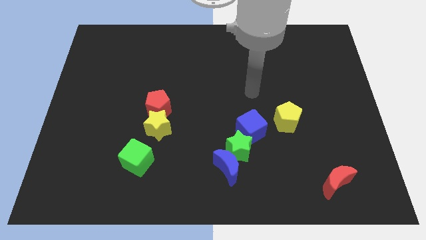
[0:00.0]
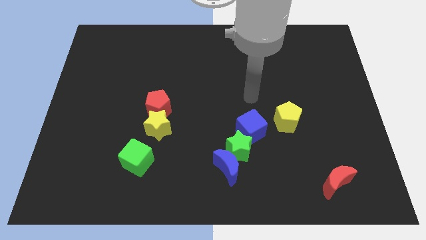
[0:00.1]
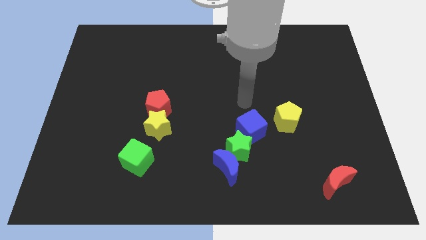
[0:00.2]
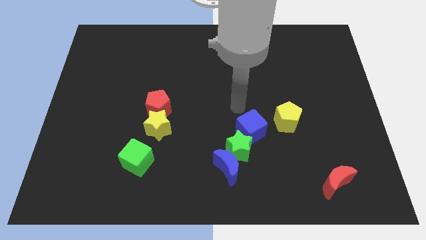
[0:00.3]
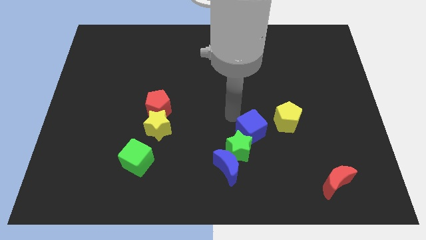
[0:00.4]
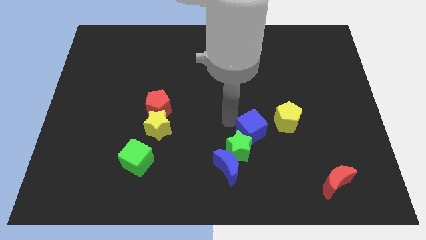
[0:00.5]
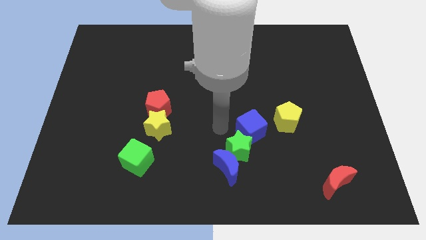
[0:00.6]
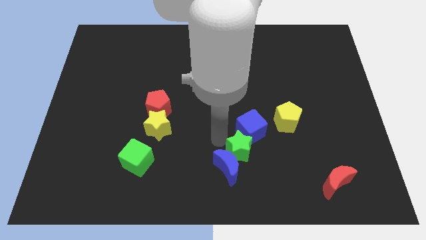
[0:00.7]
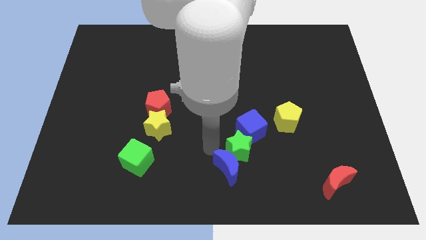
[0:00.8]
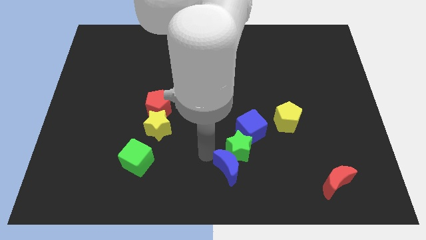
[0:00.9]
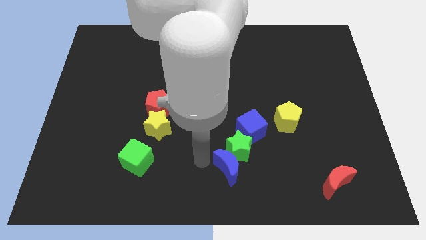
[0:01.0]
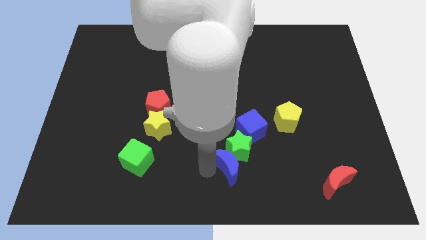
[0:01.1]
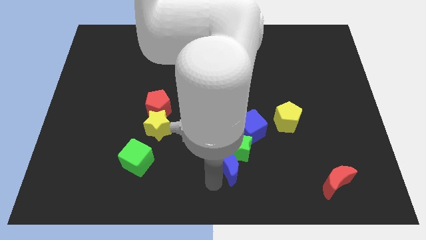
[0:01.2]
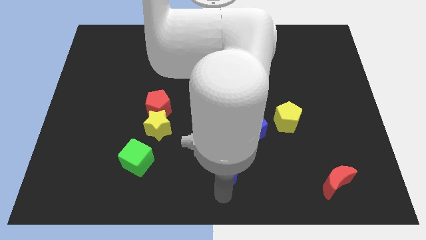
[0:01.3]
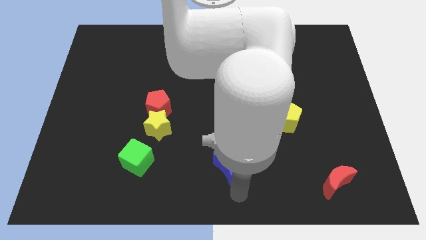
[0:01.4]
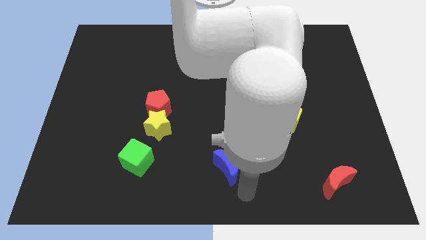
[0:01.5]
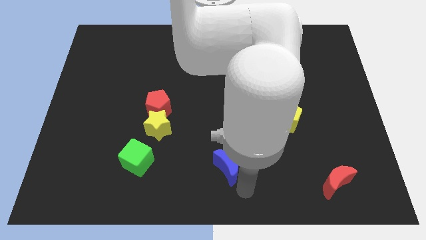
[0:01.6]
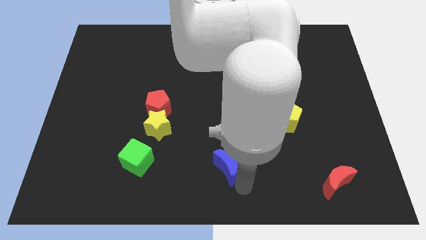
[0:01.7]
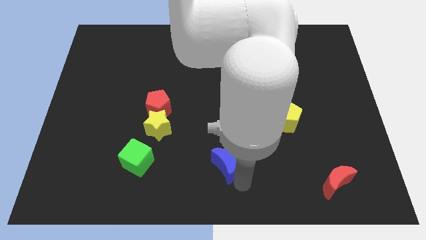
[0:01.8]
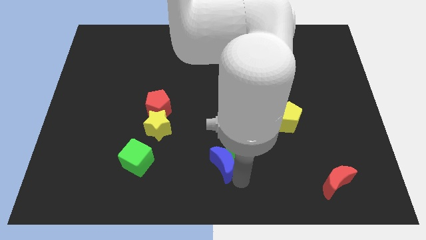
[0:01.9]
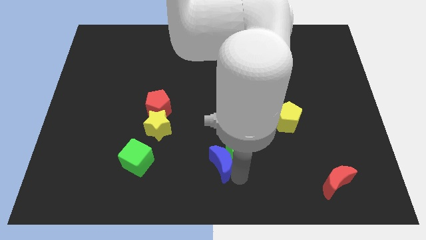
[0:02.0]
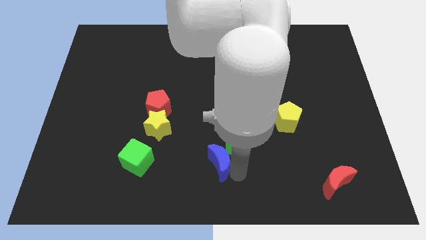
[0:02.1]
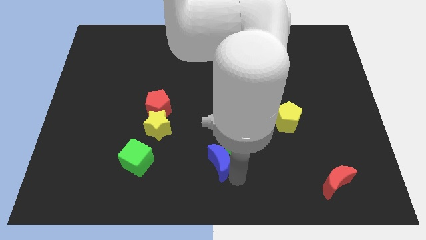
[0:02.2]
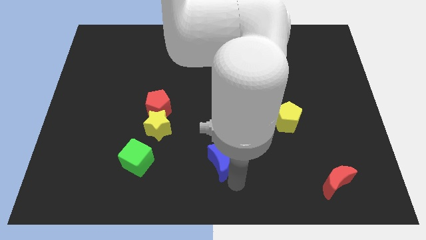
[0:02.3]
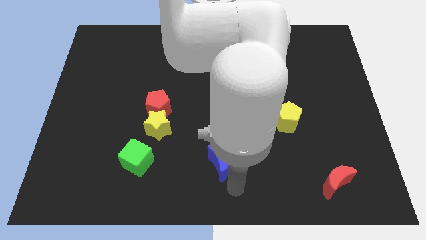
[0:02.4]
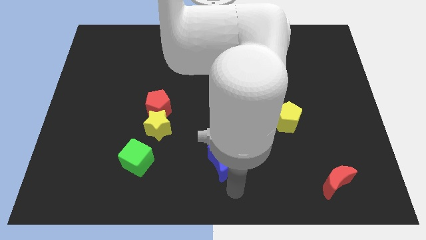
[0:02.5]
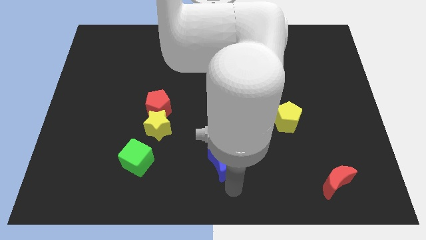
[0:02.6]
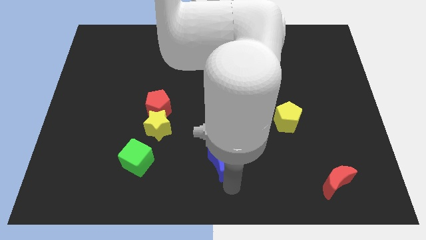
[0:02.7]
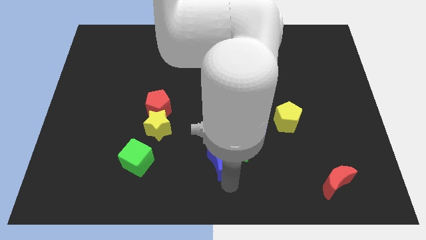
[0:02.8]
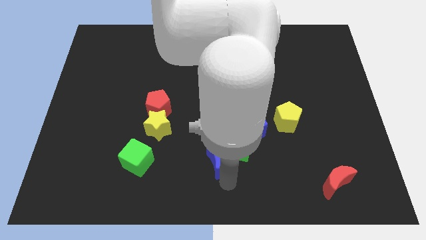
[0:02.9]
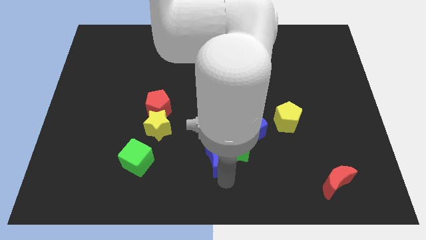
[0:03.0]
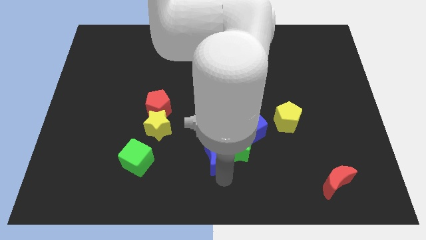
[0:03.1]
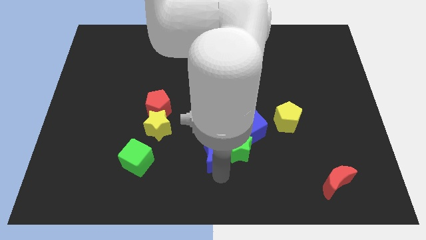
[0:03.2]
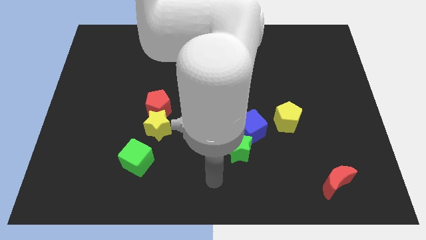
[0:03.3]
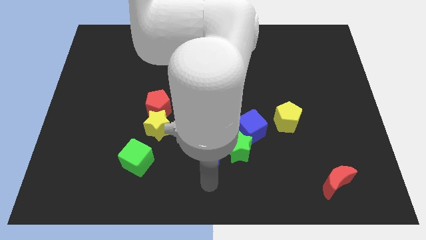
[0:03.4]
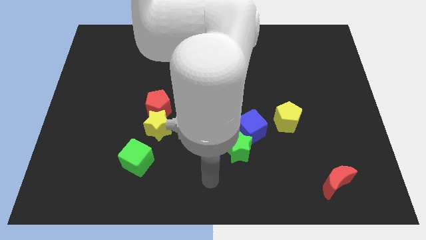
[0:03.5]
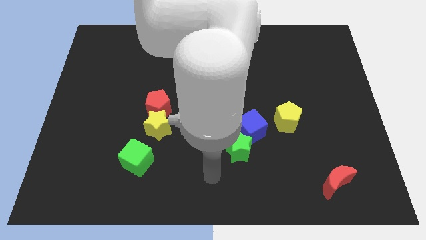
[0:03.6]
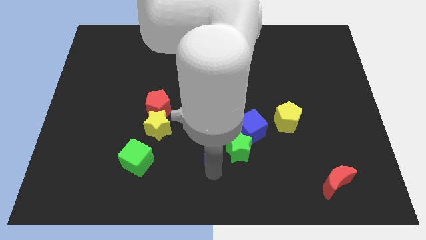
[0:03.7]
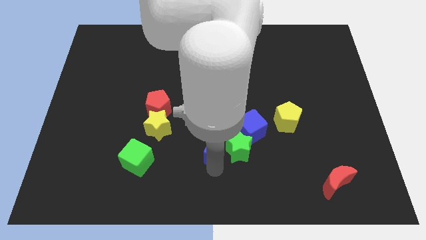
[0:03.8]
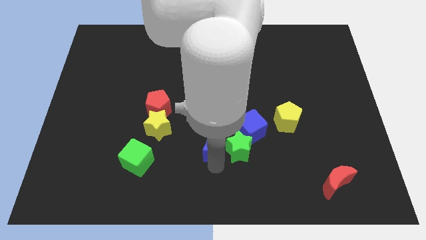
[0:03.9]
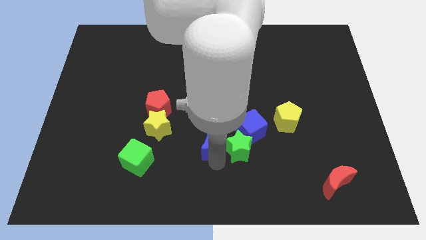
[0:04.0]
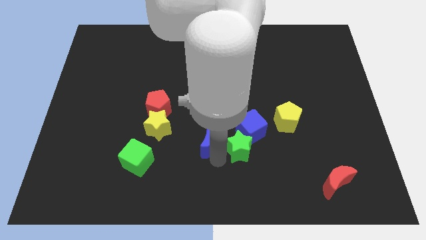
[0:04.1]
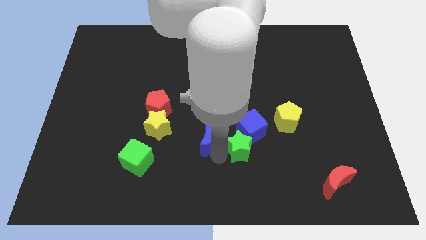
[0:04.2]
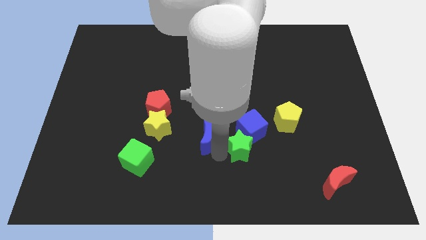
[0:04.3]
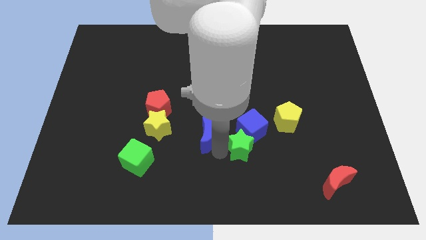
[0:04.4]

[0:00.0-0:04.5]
slide the blue moon upwards slightly

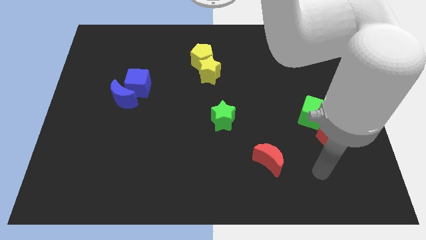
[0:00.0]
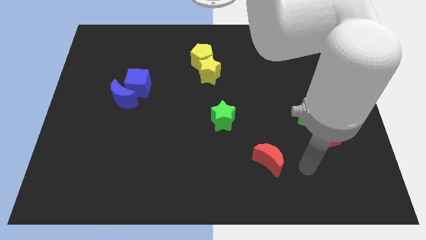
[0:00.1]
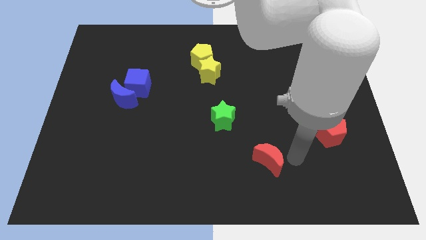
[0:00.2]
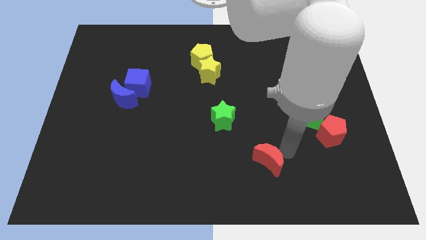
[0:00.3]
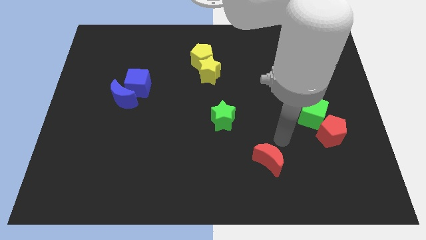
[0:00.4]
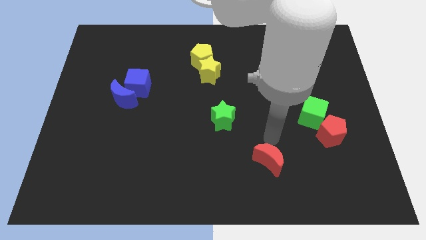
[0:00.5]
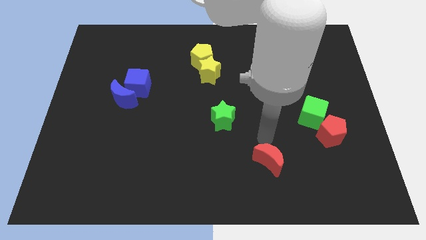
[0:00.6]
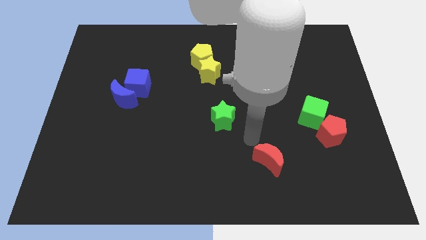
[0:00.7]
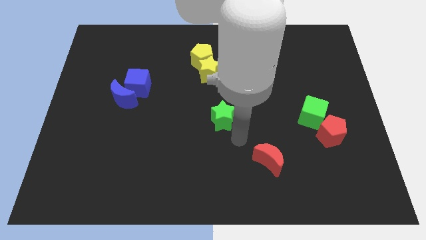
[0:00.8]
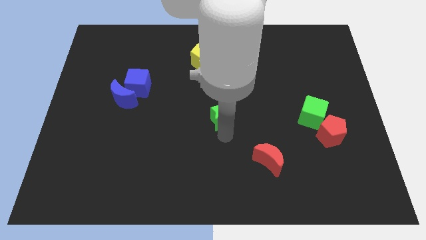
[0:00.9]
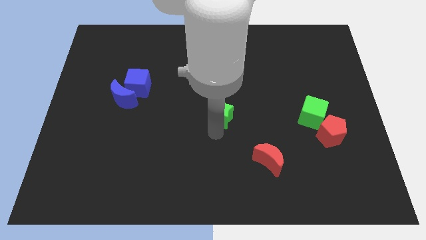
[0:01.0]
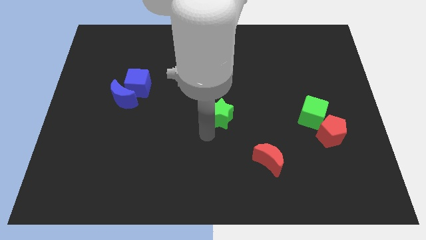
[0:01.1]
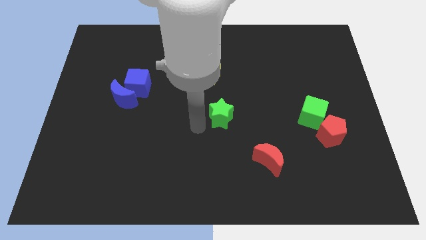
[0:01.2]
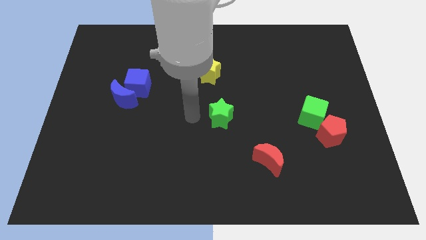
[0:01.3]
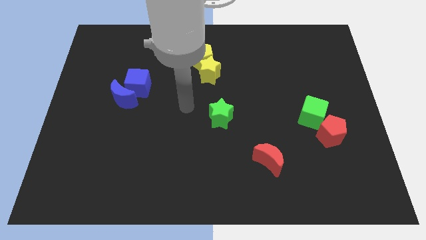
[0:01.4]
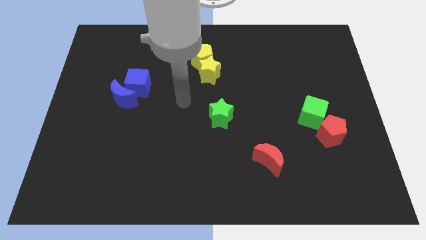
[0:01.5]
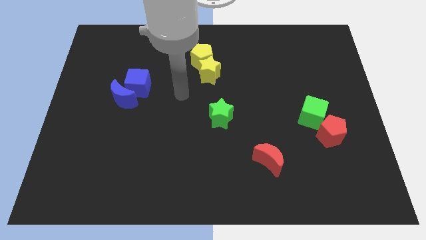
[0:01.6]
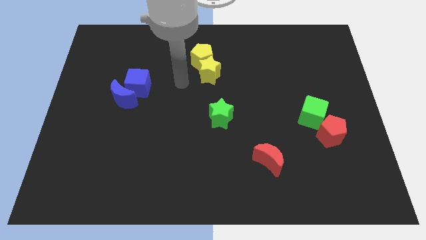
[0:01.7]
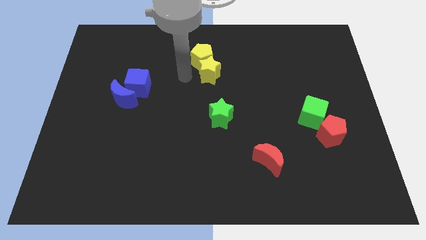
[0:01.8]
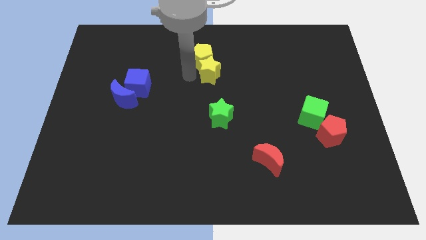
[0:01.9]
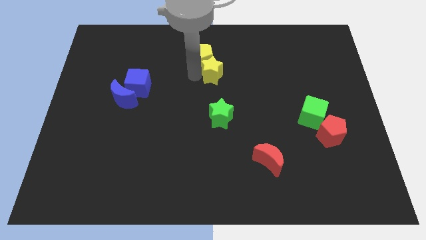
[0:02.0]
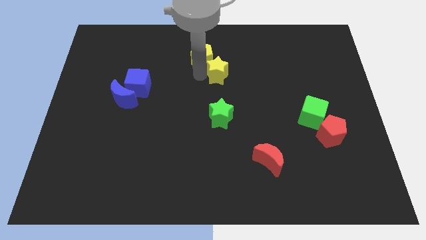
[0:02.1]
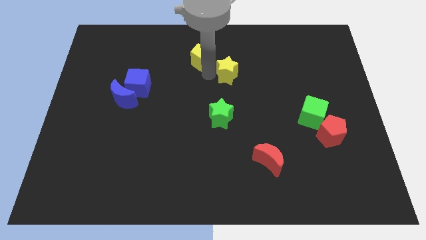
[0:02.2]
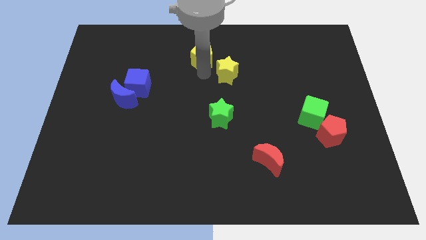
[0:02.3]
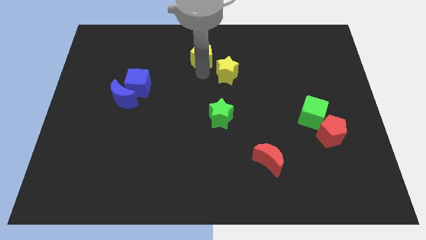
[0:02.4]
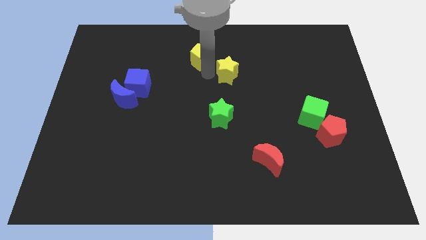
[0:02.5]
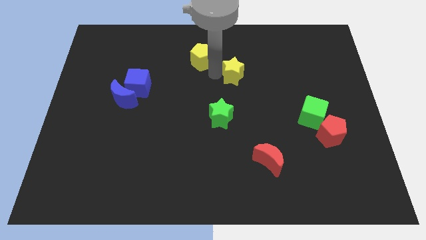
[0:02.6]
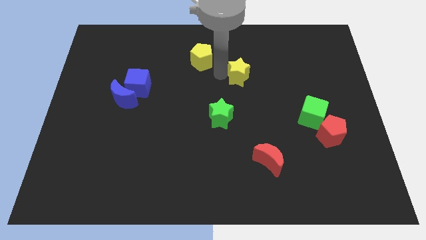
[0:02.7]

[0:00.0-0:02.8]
slide the yellow star a little right

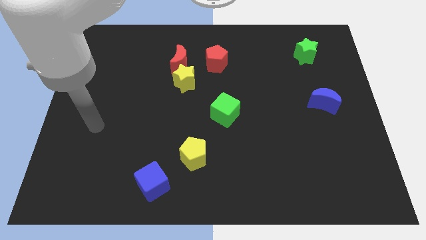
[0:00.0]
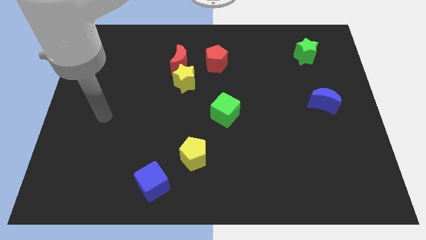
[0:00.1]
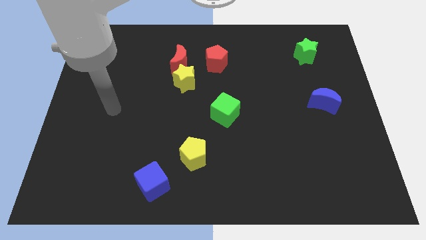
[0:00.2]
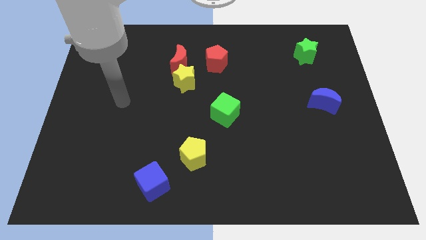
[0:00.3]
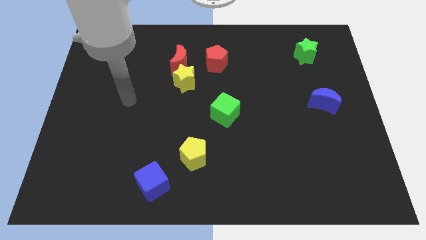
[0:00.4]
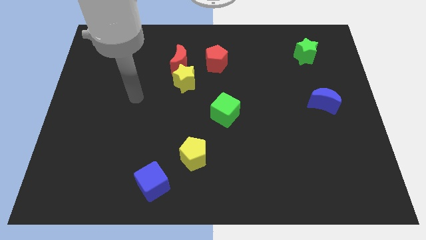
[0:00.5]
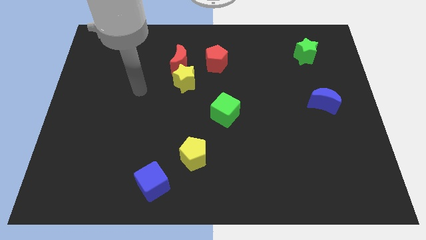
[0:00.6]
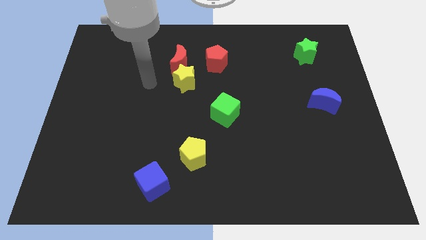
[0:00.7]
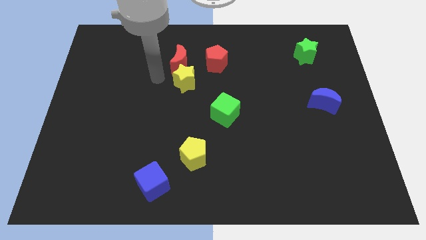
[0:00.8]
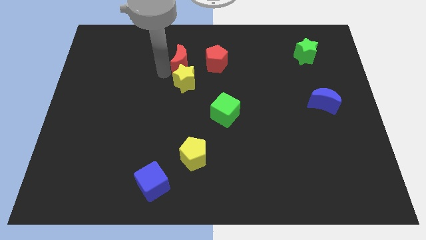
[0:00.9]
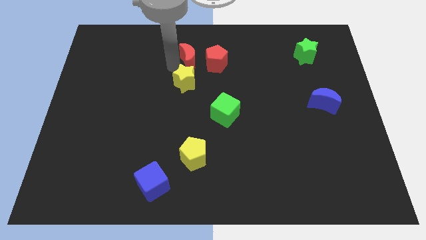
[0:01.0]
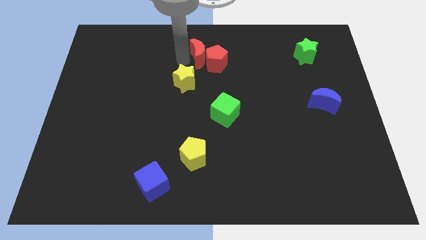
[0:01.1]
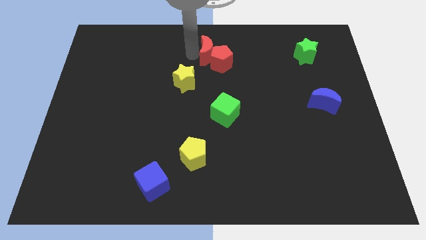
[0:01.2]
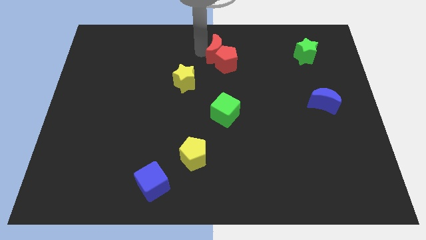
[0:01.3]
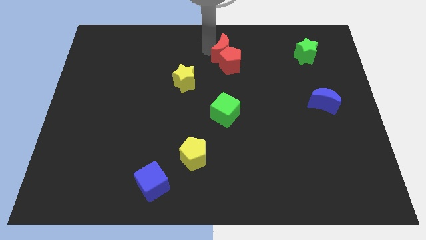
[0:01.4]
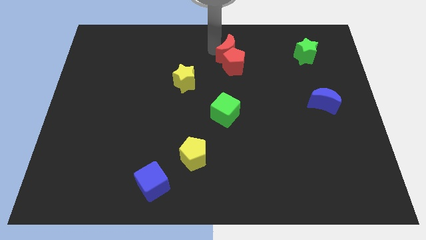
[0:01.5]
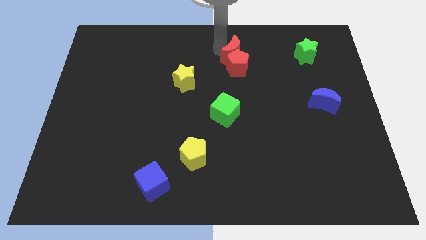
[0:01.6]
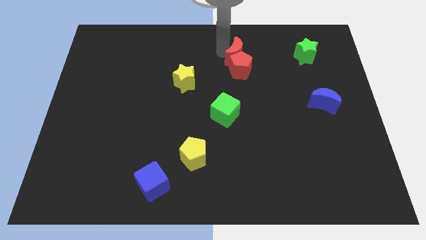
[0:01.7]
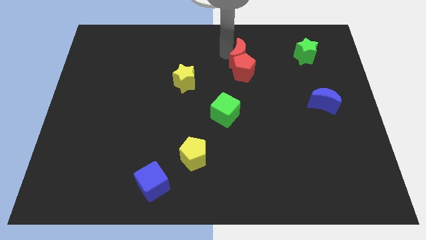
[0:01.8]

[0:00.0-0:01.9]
slide the red pentagon a little bit diagonally downwards and right
